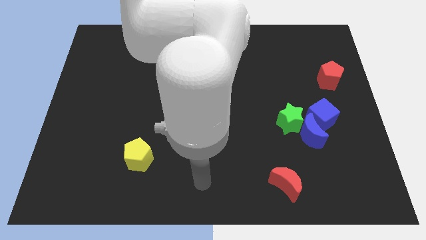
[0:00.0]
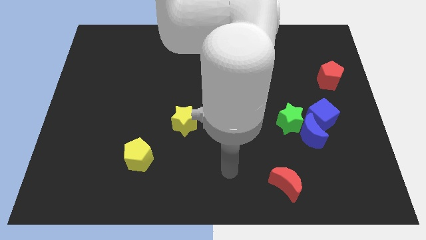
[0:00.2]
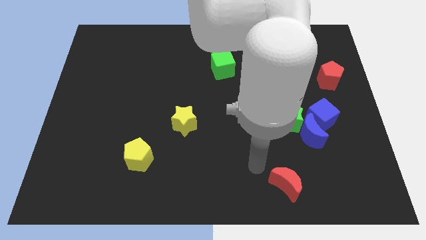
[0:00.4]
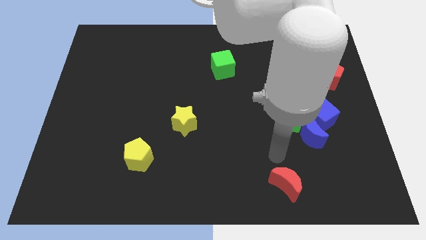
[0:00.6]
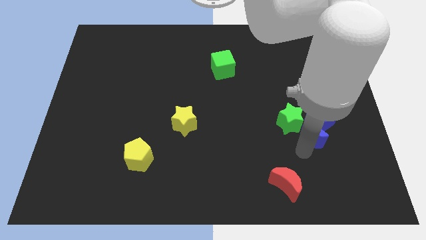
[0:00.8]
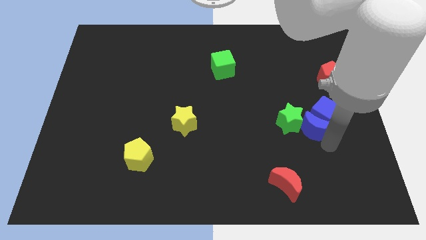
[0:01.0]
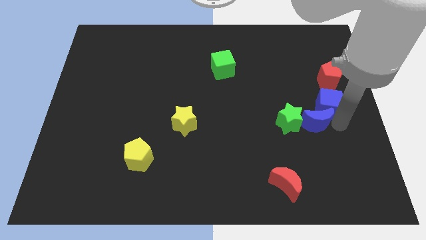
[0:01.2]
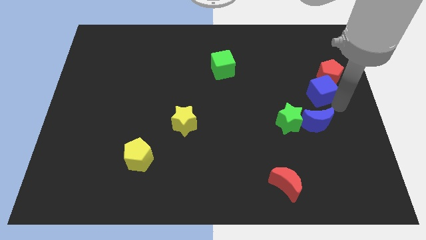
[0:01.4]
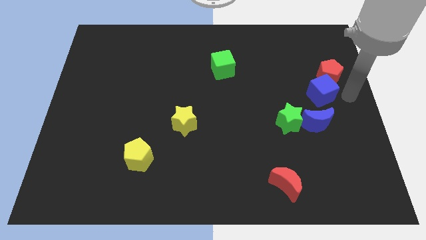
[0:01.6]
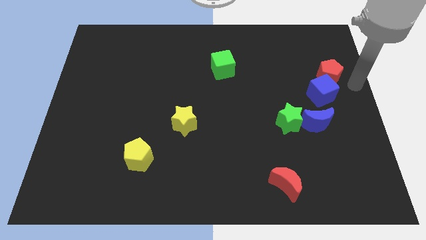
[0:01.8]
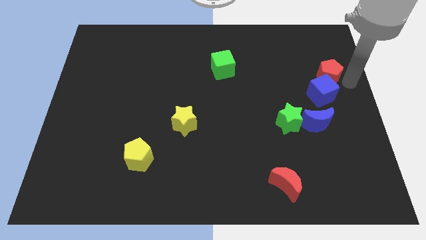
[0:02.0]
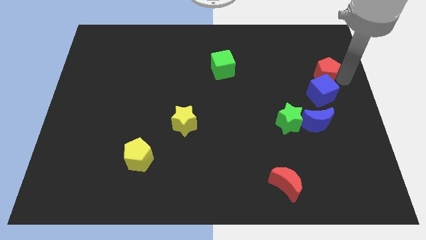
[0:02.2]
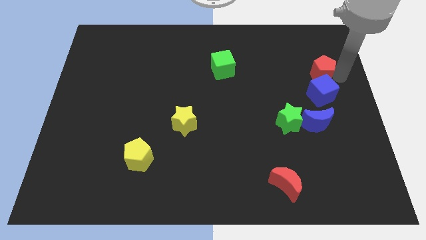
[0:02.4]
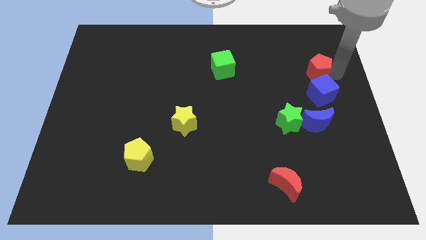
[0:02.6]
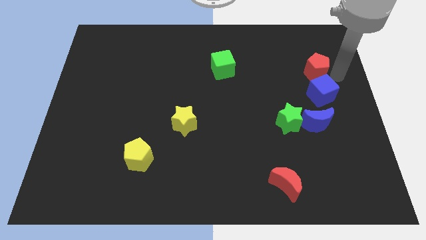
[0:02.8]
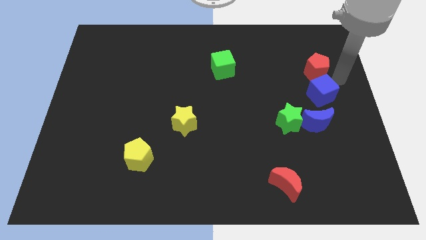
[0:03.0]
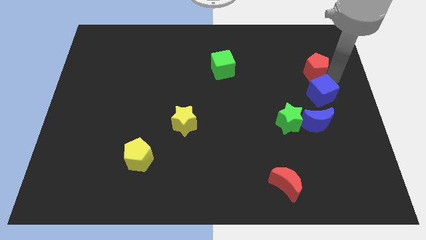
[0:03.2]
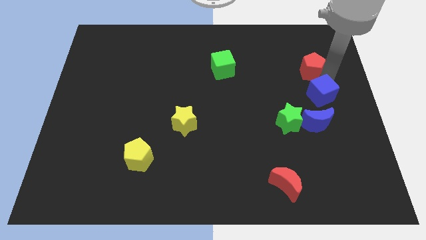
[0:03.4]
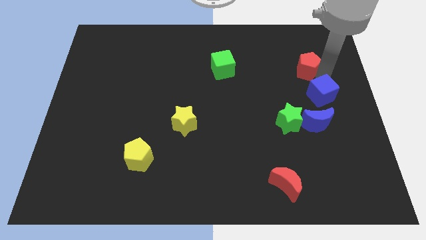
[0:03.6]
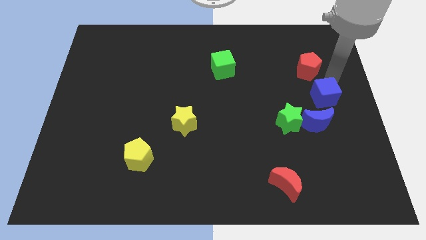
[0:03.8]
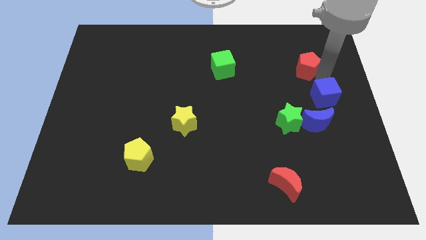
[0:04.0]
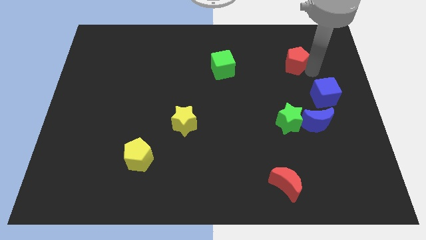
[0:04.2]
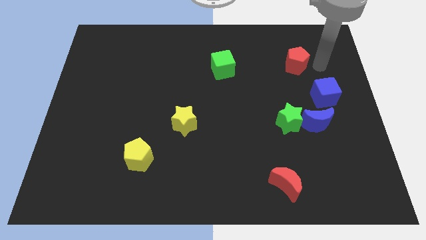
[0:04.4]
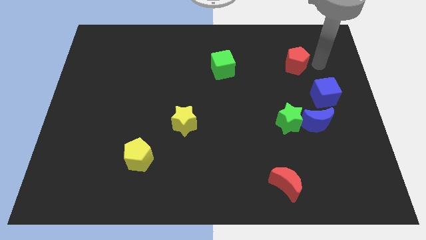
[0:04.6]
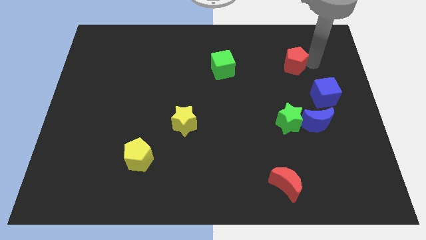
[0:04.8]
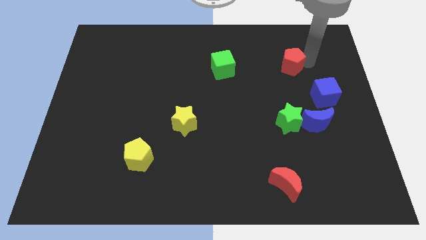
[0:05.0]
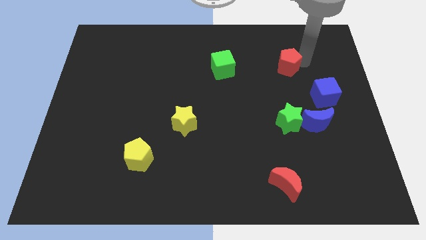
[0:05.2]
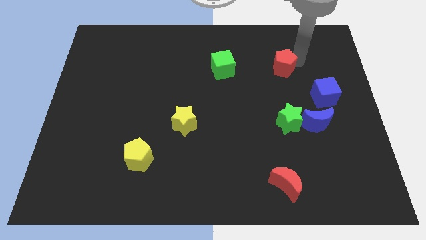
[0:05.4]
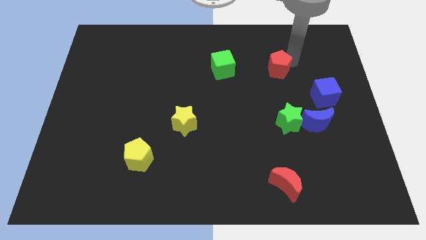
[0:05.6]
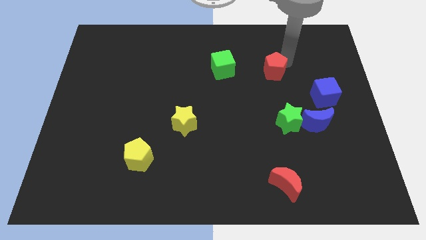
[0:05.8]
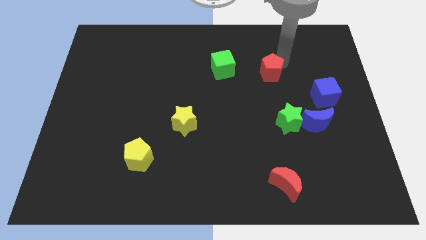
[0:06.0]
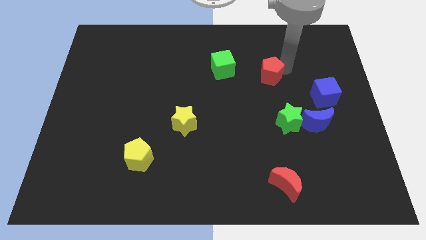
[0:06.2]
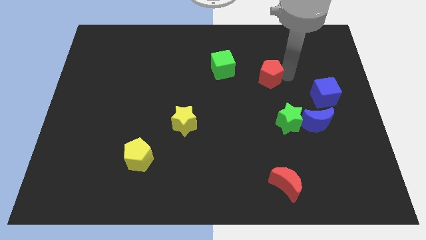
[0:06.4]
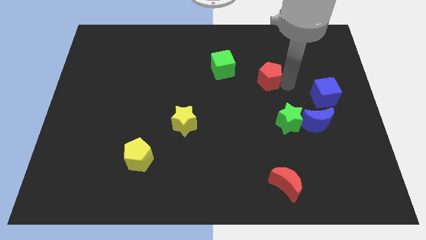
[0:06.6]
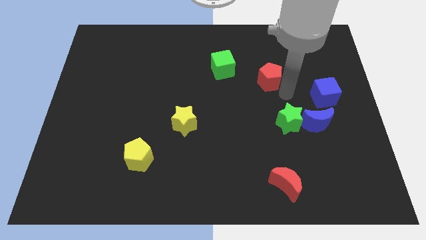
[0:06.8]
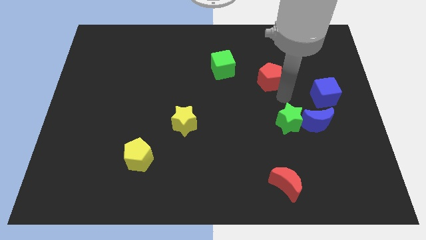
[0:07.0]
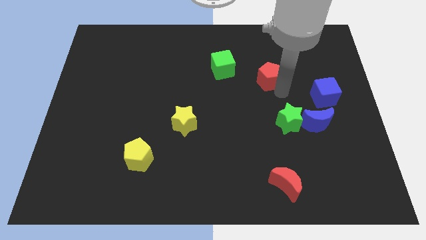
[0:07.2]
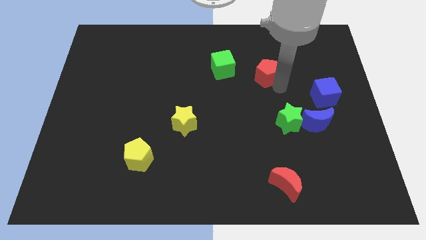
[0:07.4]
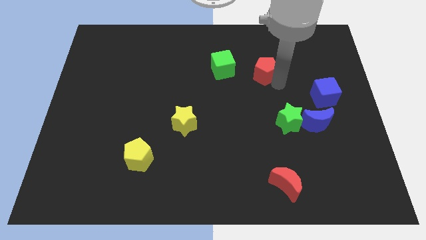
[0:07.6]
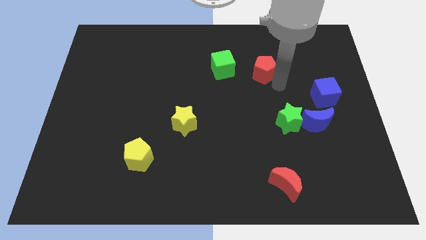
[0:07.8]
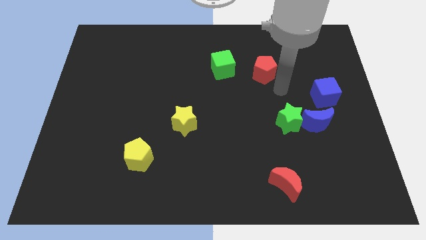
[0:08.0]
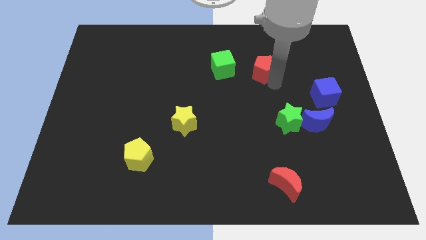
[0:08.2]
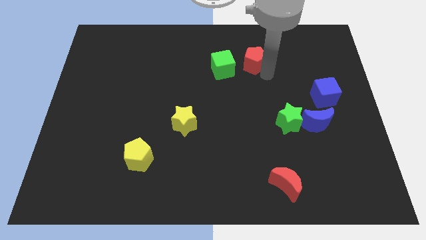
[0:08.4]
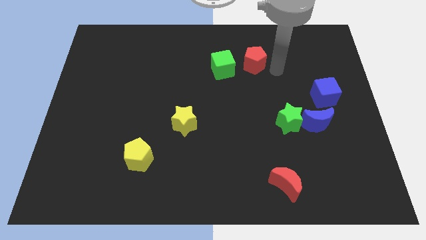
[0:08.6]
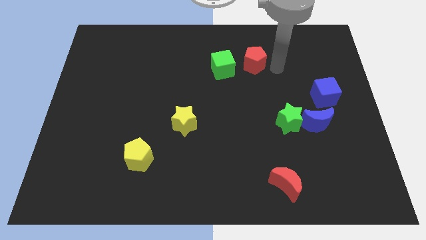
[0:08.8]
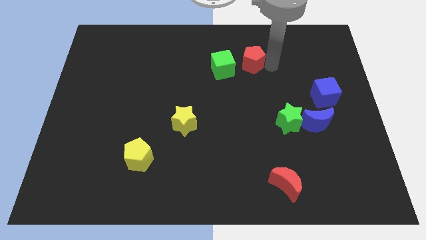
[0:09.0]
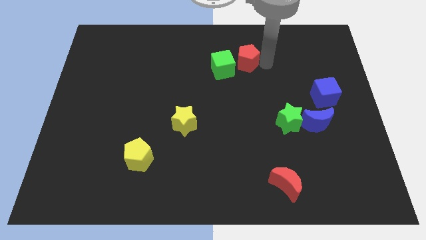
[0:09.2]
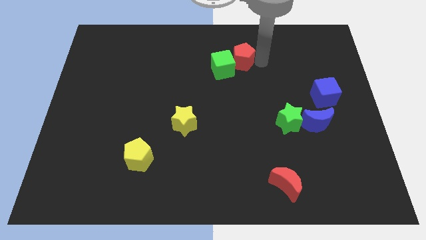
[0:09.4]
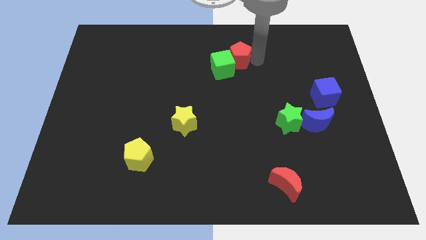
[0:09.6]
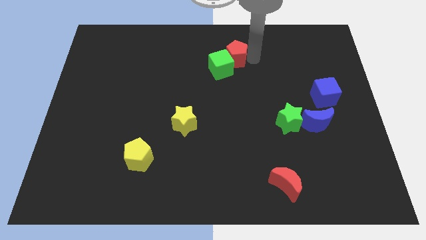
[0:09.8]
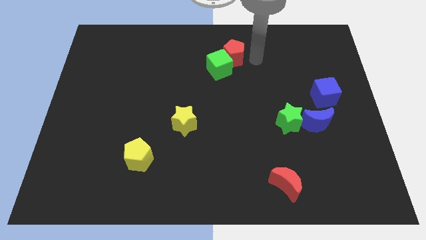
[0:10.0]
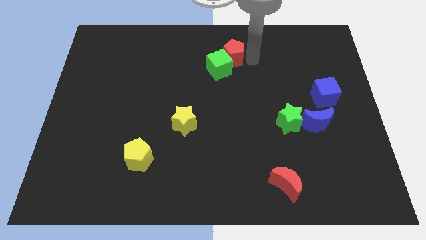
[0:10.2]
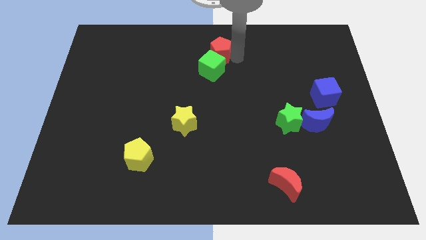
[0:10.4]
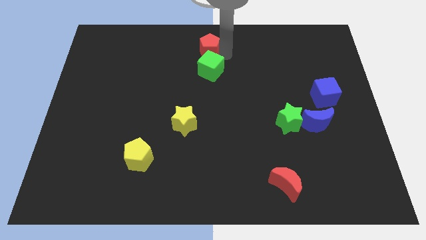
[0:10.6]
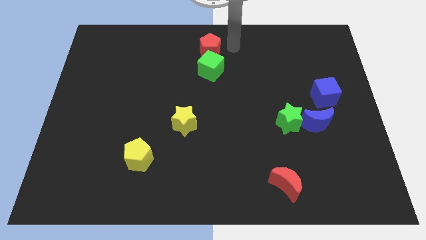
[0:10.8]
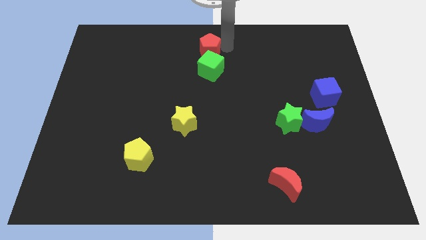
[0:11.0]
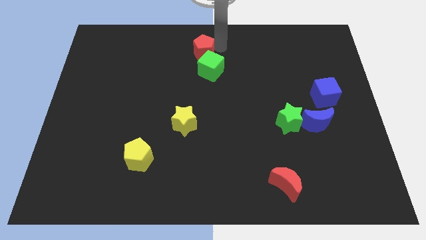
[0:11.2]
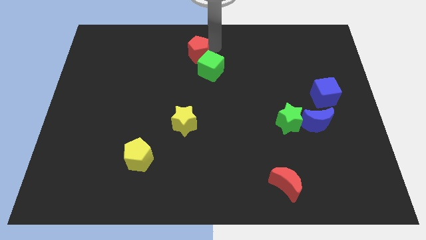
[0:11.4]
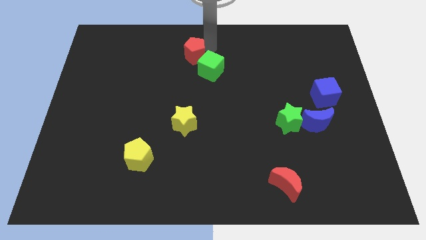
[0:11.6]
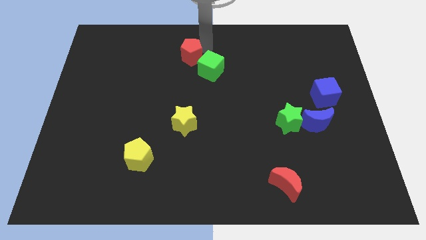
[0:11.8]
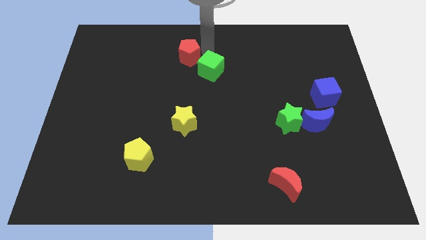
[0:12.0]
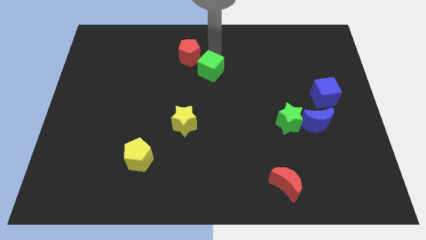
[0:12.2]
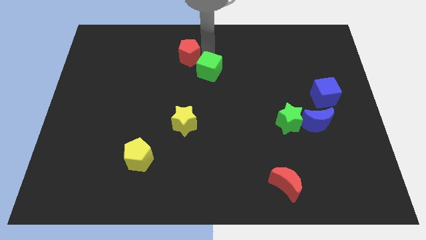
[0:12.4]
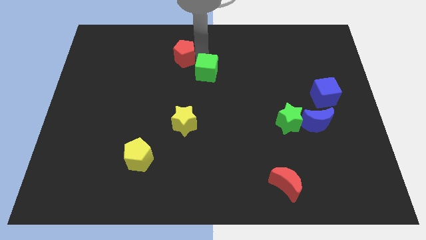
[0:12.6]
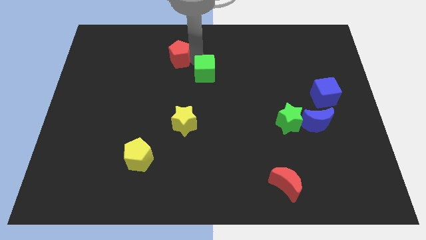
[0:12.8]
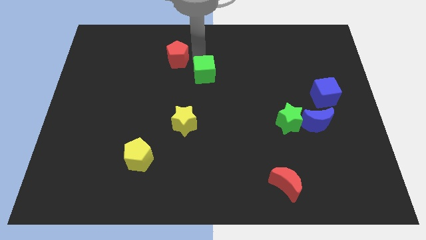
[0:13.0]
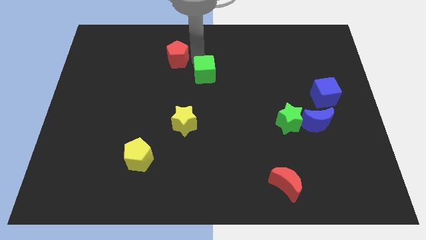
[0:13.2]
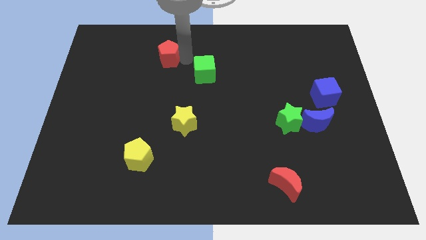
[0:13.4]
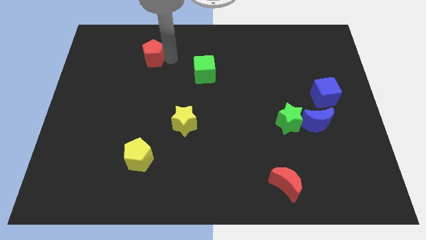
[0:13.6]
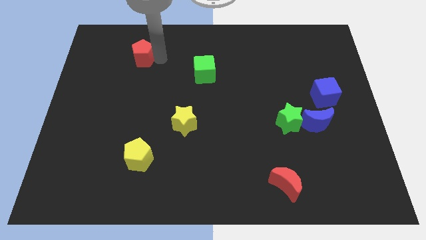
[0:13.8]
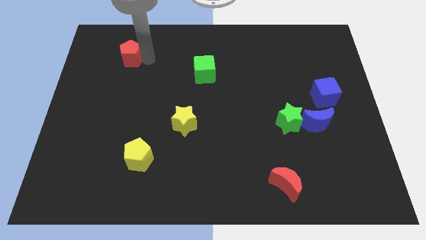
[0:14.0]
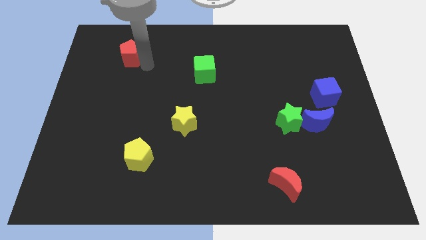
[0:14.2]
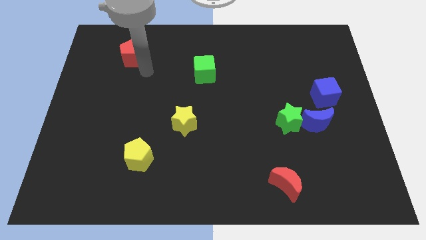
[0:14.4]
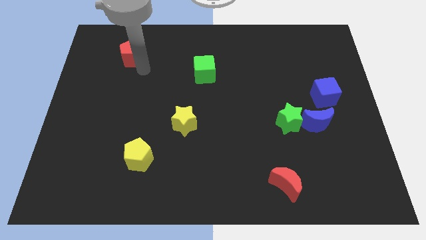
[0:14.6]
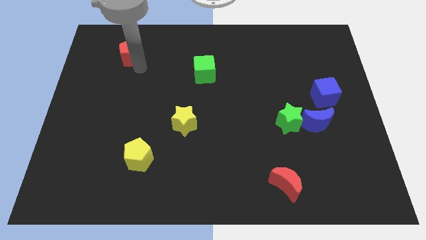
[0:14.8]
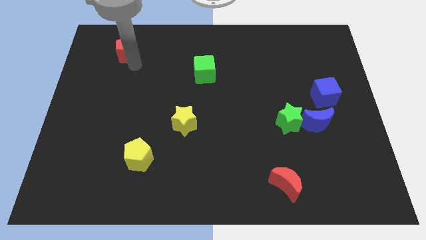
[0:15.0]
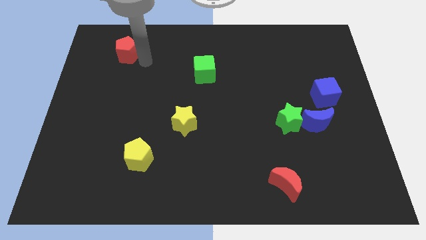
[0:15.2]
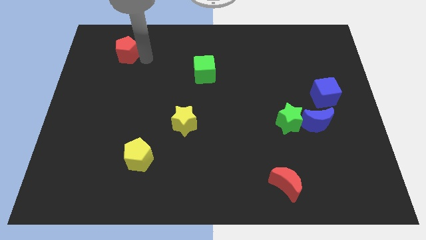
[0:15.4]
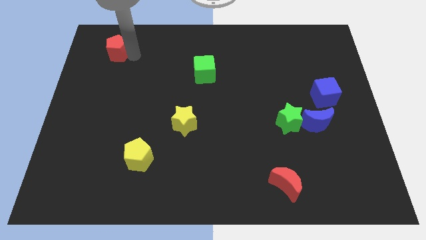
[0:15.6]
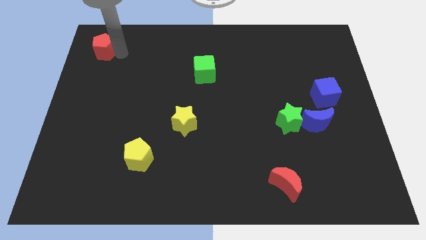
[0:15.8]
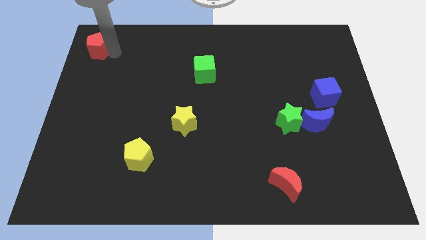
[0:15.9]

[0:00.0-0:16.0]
move the red pentagon to the top left corner
